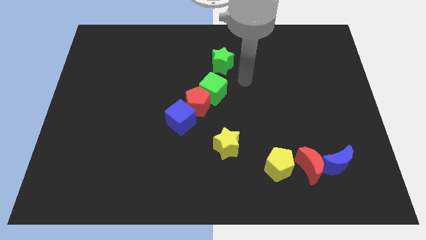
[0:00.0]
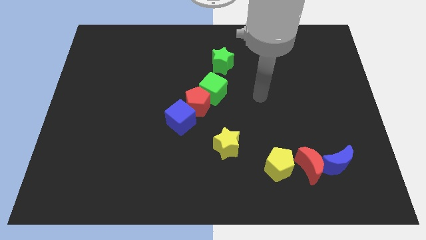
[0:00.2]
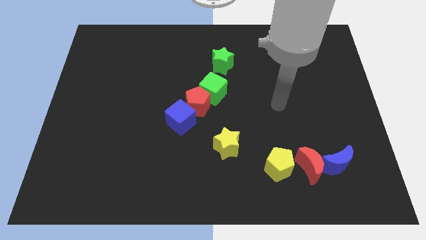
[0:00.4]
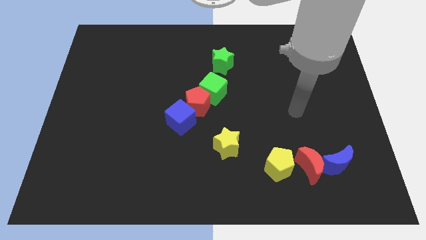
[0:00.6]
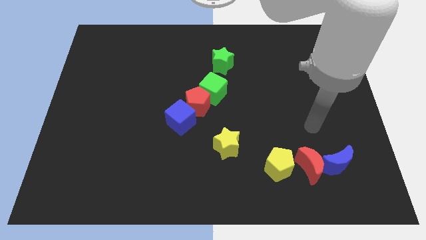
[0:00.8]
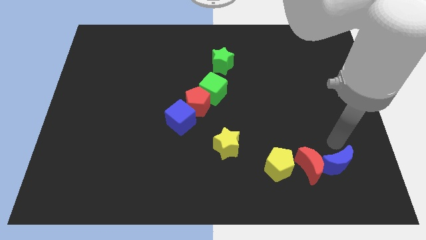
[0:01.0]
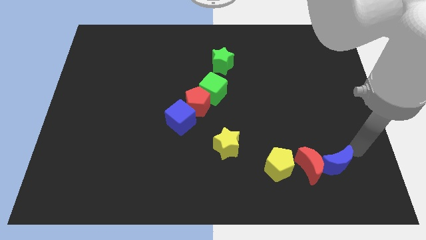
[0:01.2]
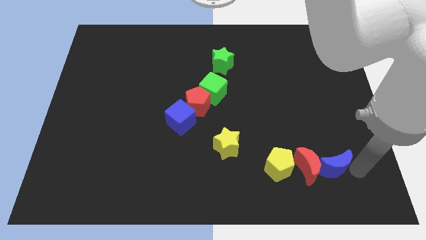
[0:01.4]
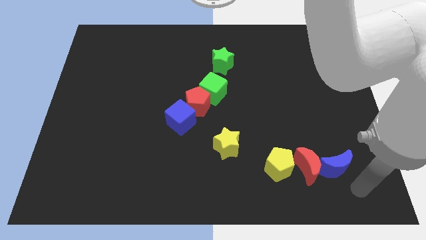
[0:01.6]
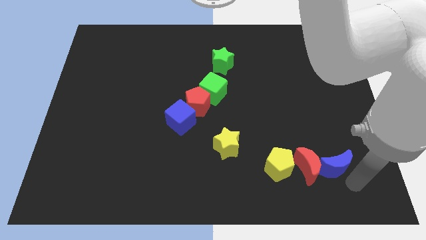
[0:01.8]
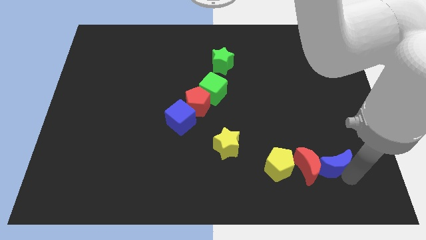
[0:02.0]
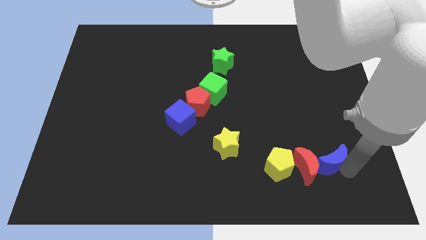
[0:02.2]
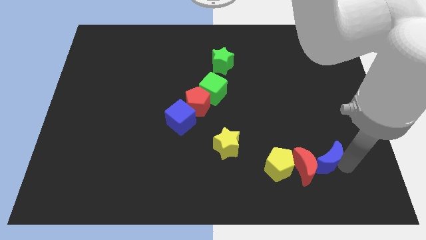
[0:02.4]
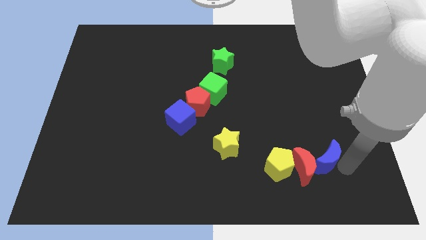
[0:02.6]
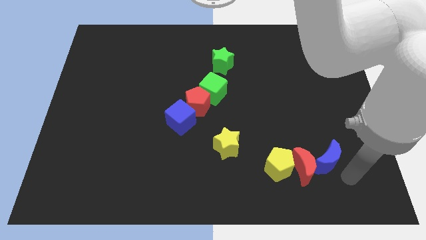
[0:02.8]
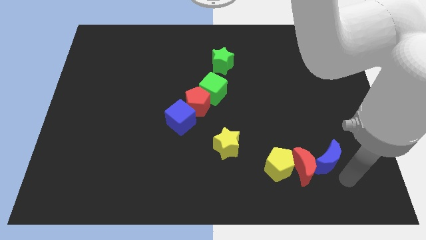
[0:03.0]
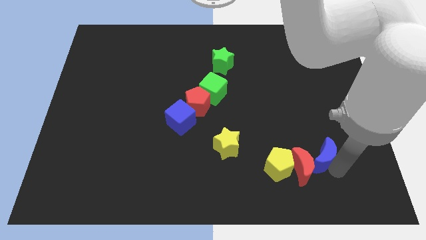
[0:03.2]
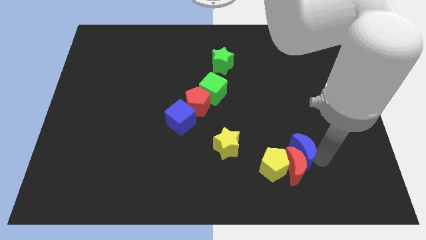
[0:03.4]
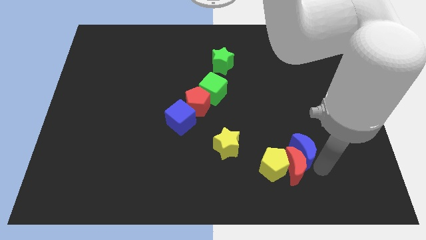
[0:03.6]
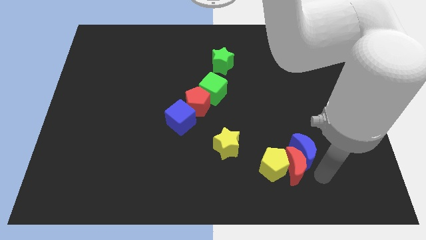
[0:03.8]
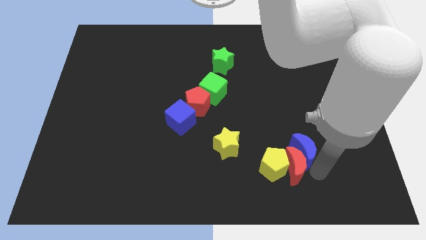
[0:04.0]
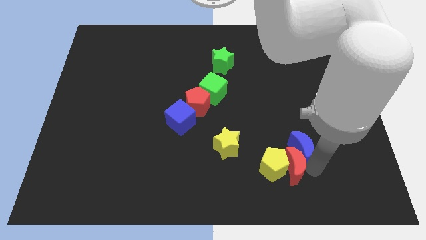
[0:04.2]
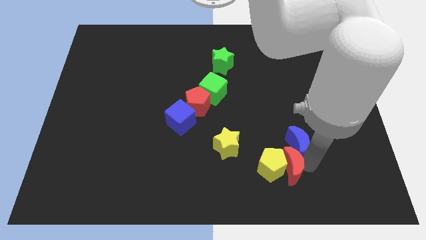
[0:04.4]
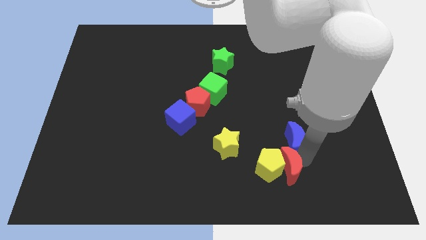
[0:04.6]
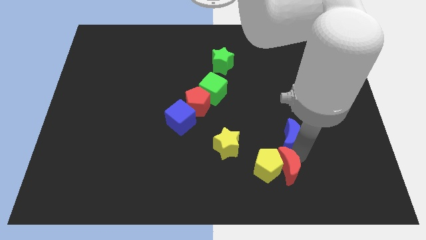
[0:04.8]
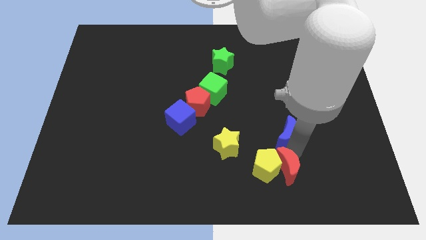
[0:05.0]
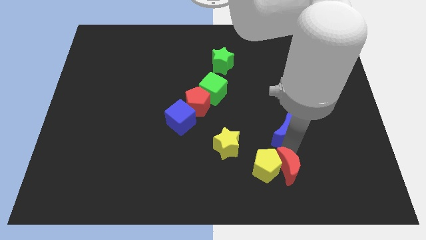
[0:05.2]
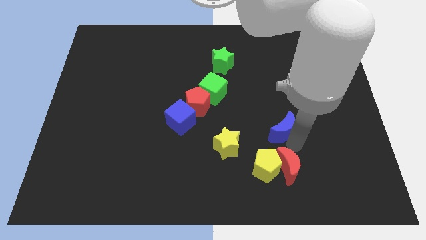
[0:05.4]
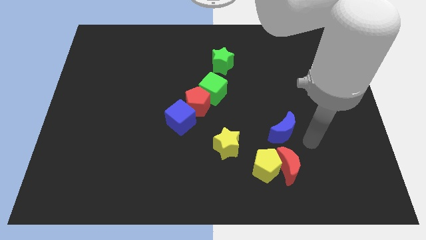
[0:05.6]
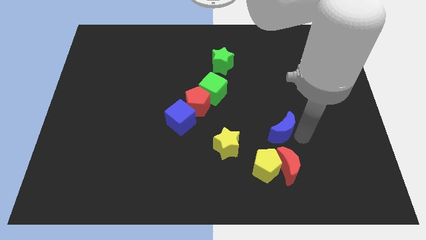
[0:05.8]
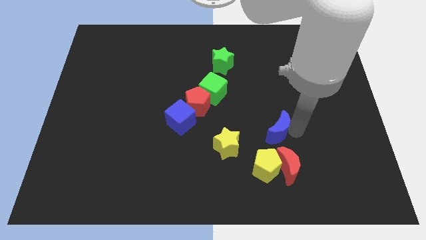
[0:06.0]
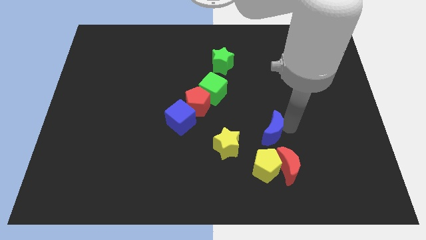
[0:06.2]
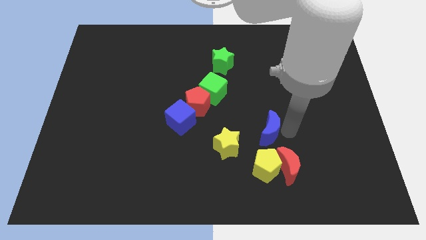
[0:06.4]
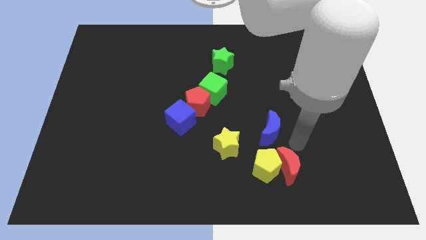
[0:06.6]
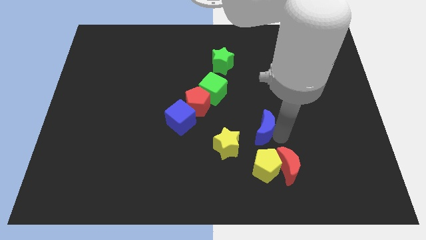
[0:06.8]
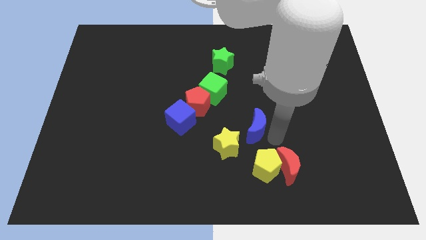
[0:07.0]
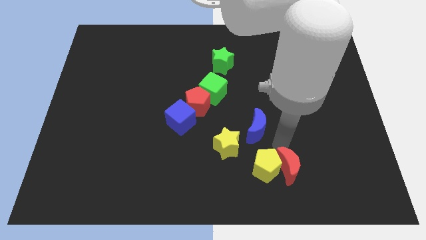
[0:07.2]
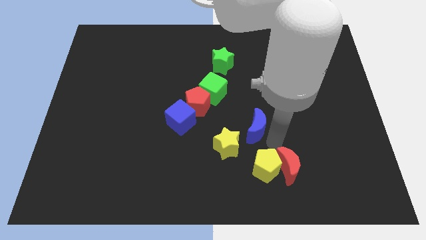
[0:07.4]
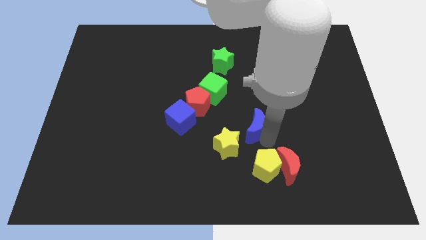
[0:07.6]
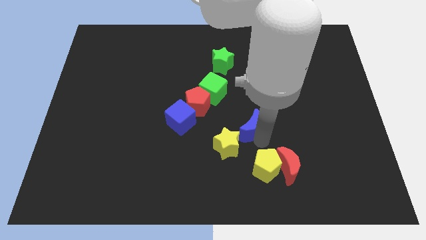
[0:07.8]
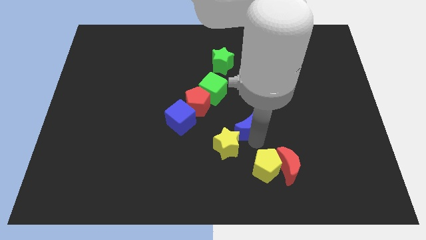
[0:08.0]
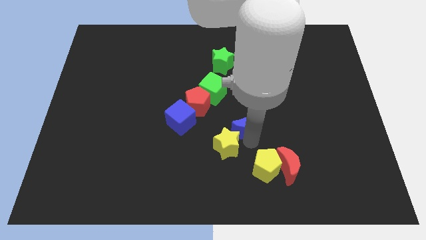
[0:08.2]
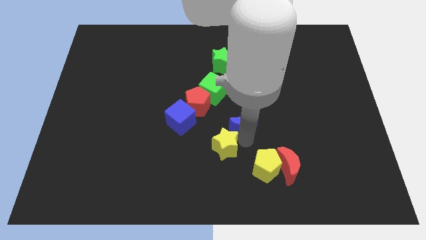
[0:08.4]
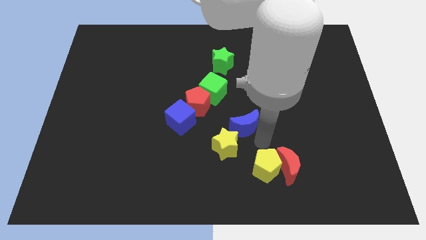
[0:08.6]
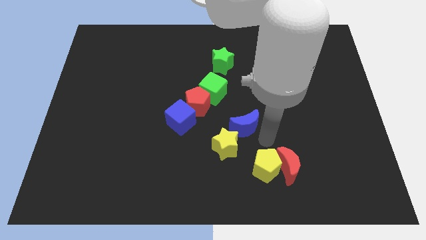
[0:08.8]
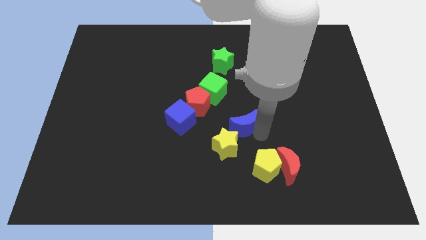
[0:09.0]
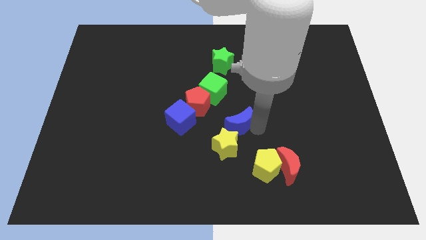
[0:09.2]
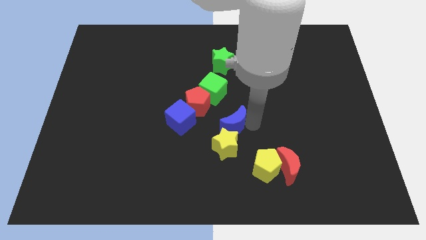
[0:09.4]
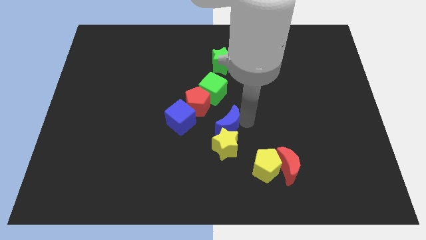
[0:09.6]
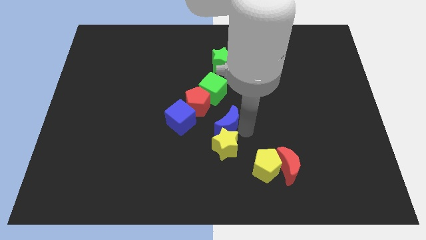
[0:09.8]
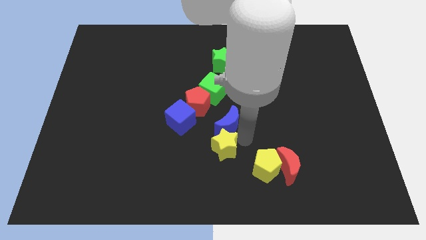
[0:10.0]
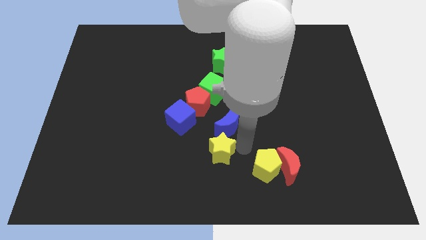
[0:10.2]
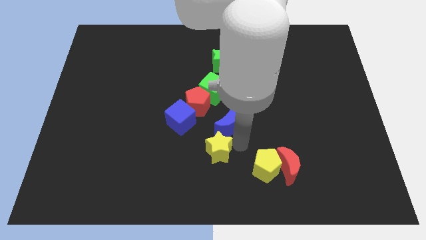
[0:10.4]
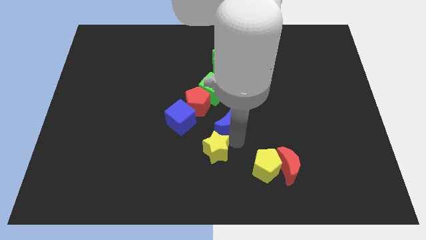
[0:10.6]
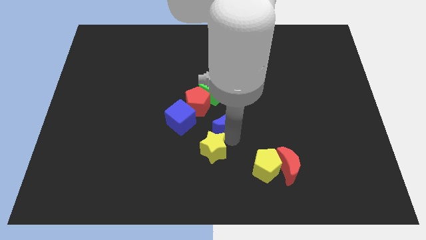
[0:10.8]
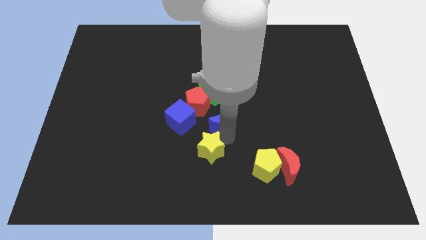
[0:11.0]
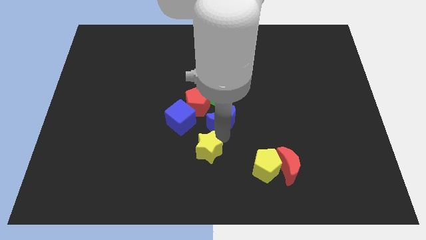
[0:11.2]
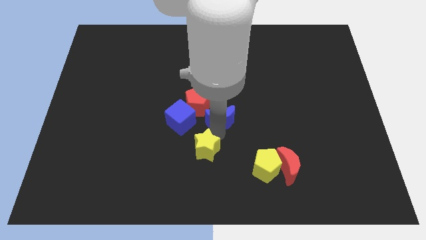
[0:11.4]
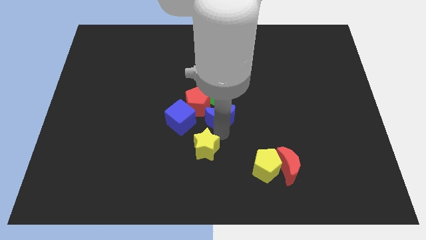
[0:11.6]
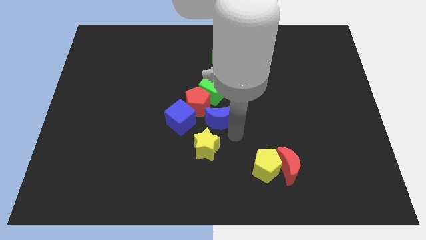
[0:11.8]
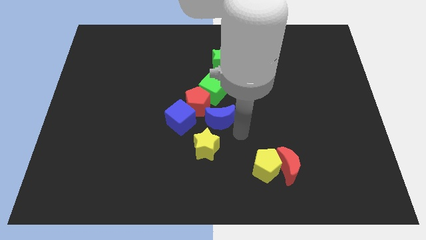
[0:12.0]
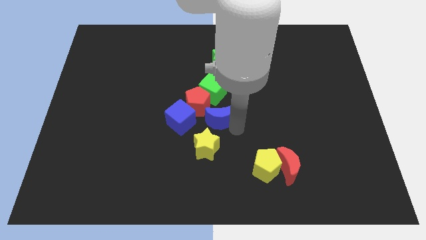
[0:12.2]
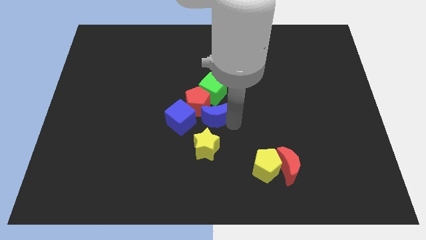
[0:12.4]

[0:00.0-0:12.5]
put the blue moon to the red pentagon

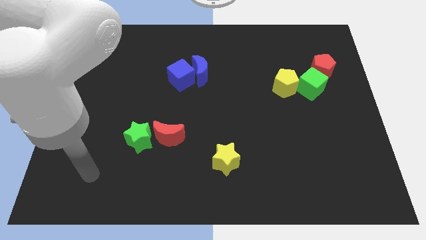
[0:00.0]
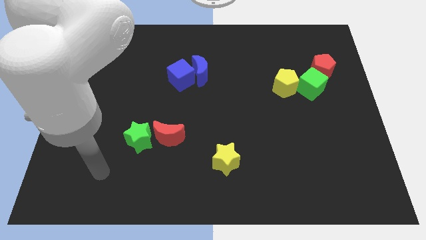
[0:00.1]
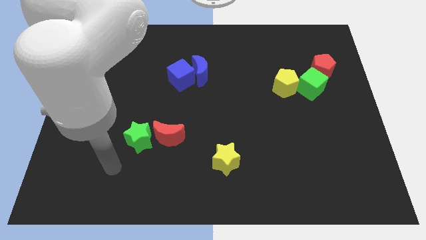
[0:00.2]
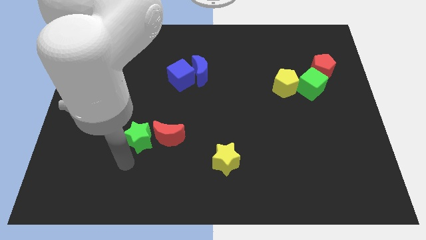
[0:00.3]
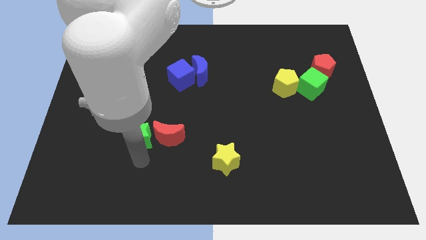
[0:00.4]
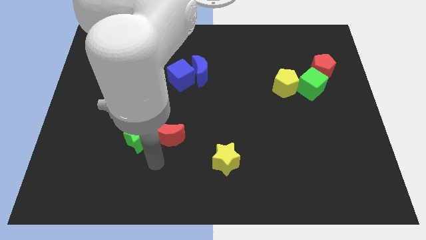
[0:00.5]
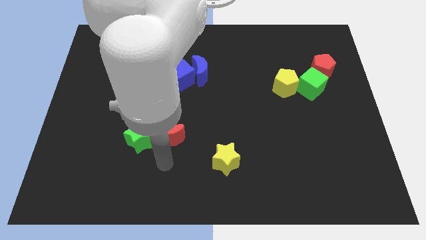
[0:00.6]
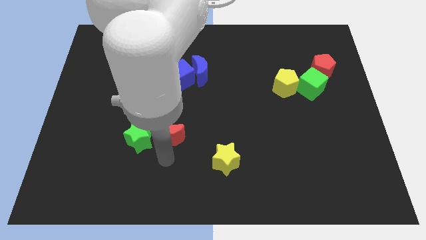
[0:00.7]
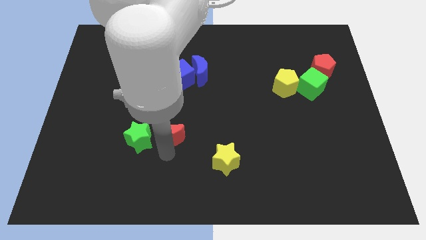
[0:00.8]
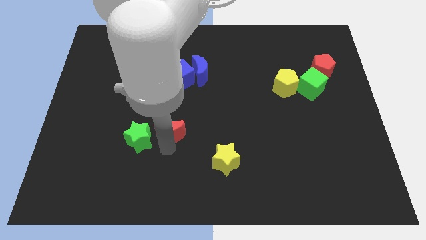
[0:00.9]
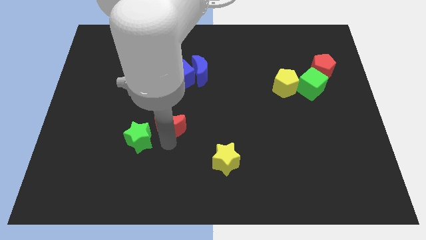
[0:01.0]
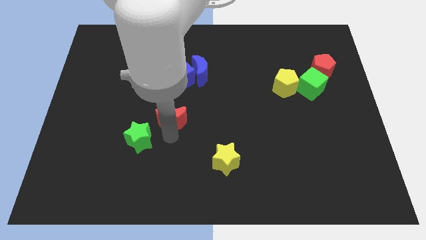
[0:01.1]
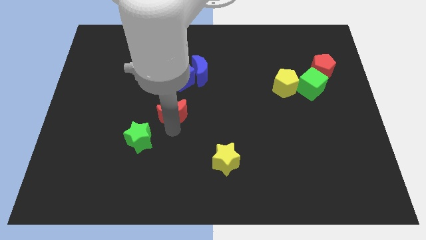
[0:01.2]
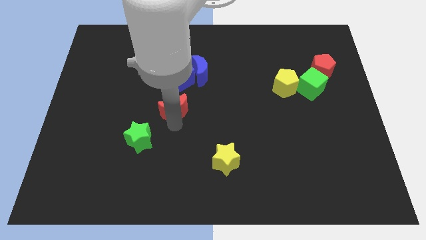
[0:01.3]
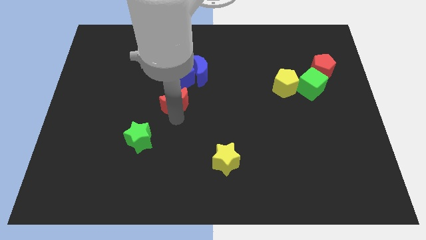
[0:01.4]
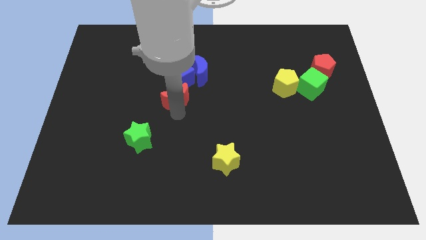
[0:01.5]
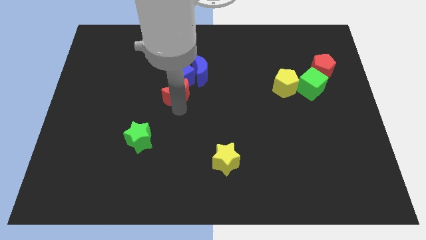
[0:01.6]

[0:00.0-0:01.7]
push the red moon to the blue cube
